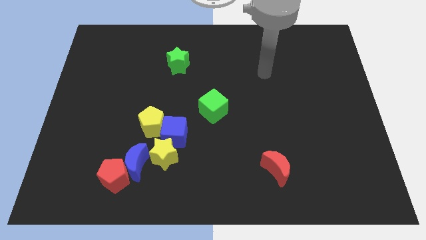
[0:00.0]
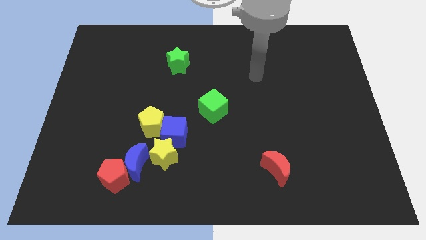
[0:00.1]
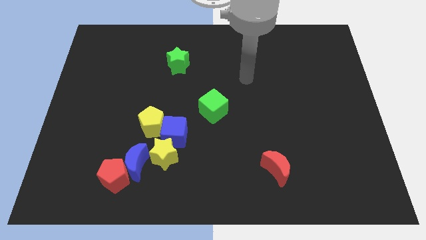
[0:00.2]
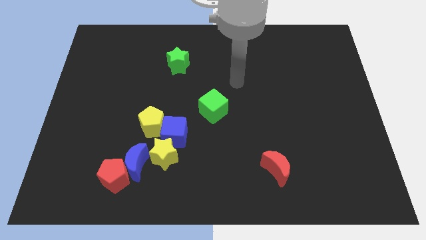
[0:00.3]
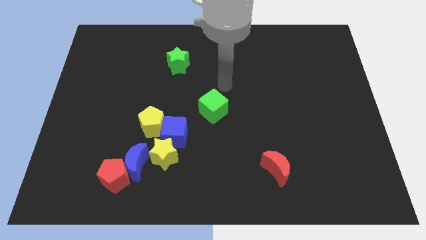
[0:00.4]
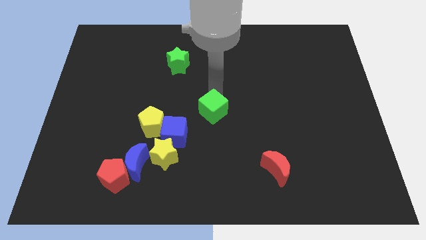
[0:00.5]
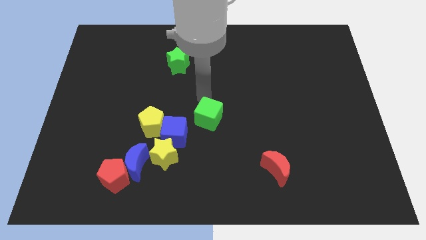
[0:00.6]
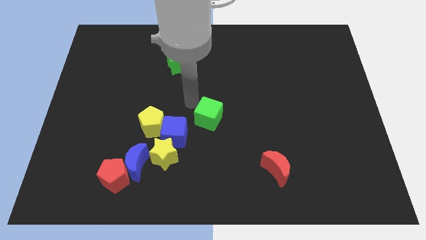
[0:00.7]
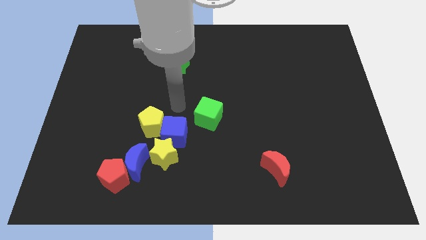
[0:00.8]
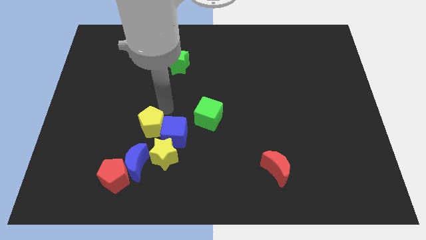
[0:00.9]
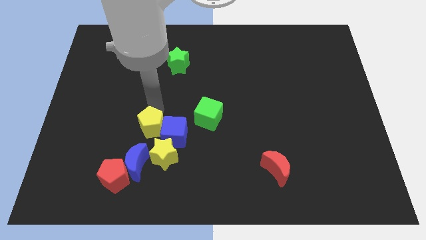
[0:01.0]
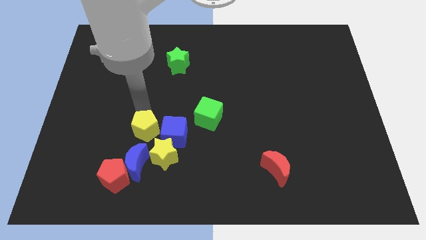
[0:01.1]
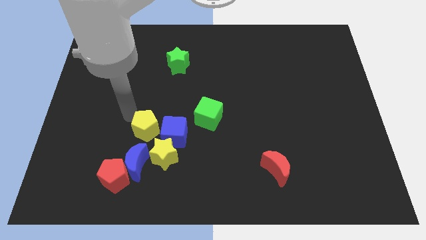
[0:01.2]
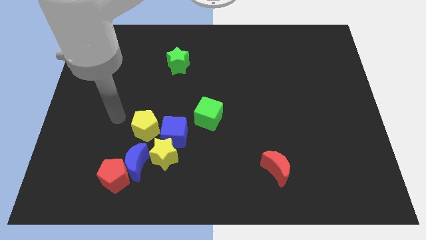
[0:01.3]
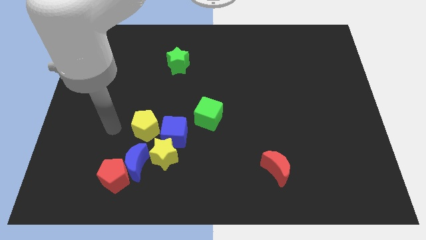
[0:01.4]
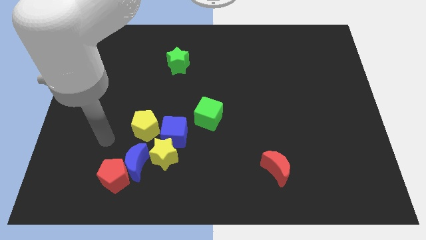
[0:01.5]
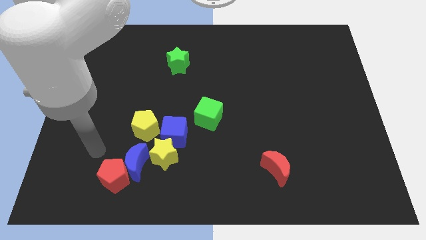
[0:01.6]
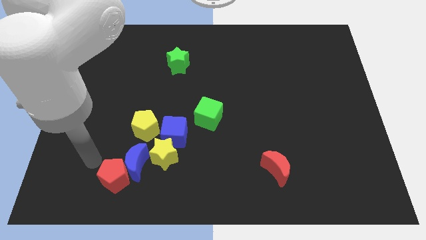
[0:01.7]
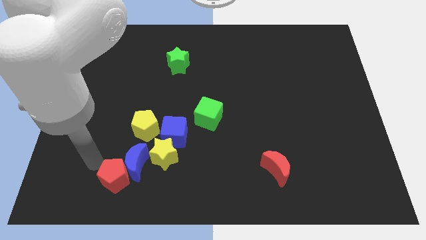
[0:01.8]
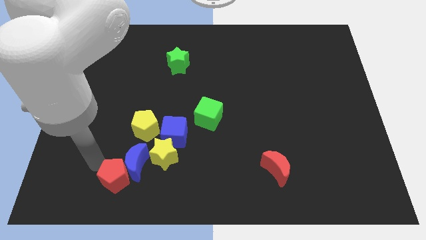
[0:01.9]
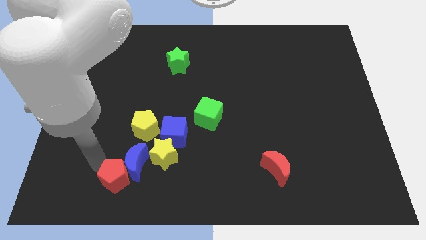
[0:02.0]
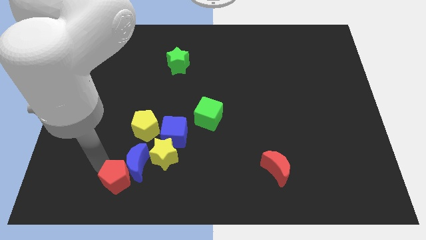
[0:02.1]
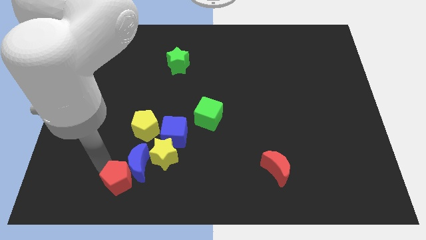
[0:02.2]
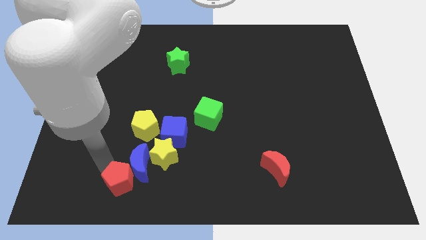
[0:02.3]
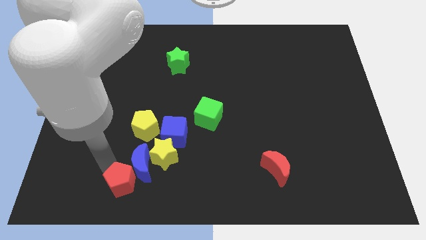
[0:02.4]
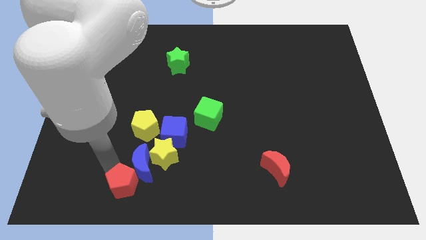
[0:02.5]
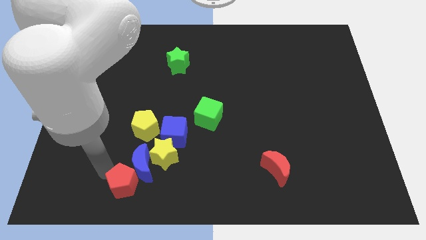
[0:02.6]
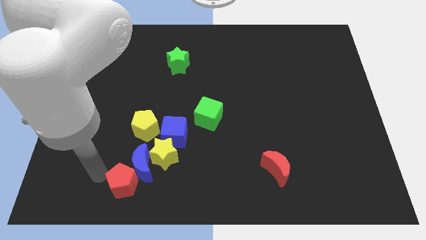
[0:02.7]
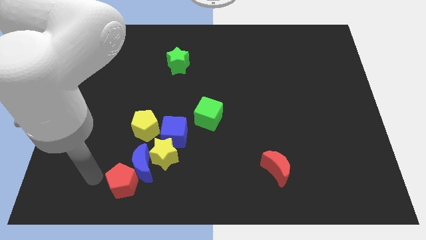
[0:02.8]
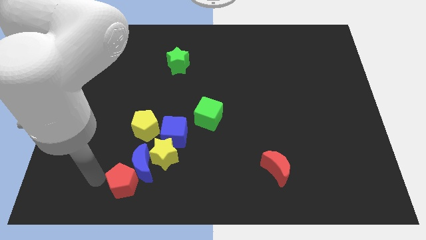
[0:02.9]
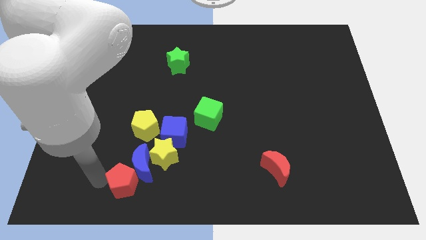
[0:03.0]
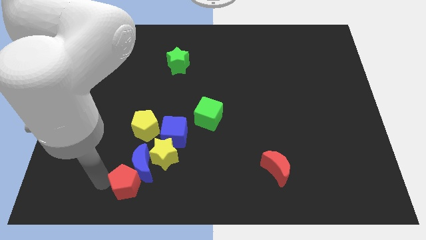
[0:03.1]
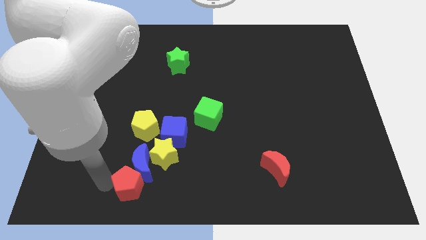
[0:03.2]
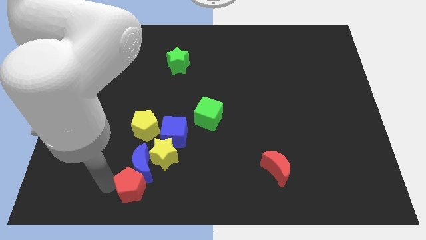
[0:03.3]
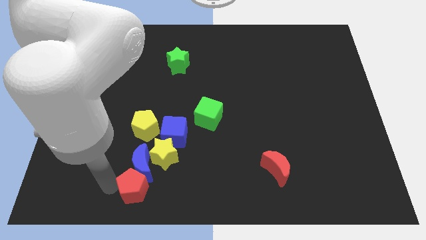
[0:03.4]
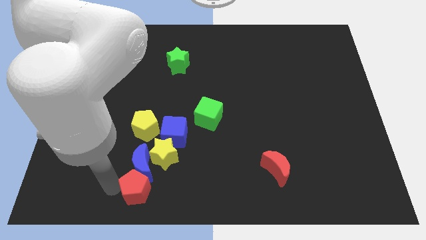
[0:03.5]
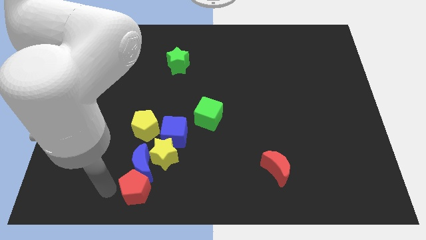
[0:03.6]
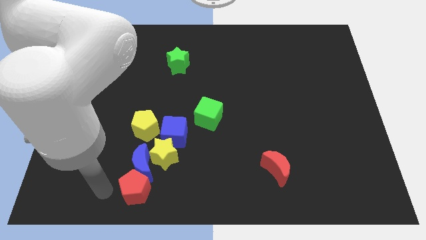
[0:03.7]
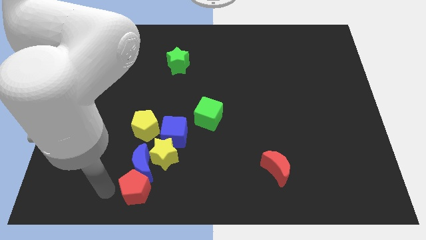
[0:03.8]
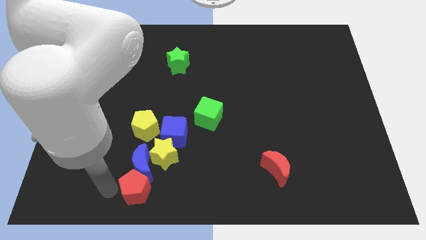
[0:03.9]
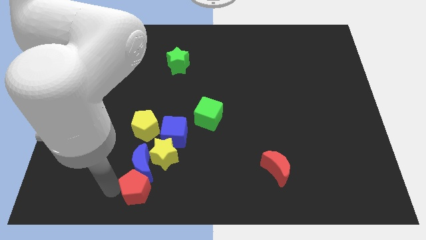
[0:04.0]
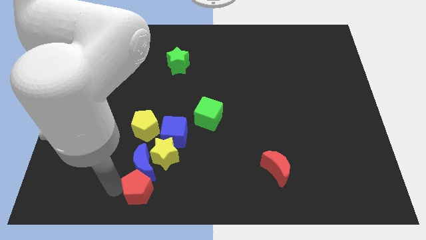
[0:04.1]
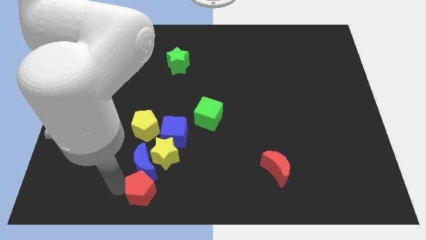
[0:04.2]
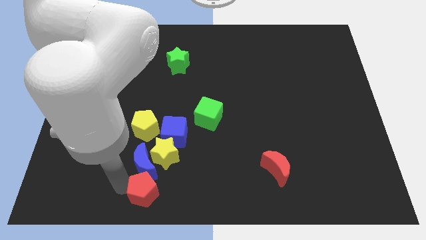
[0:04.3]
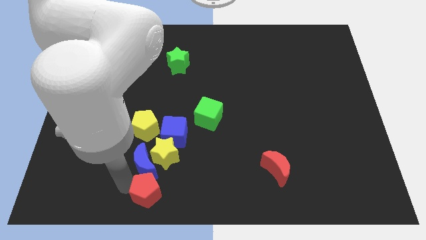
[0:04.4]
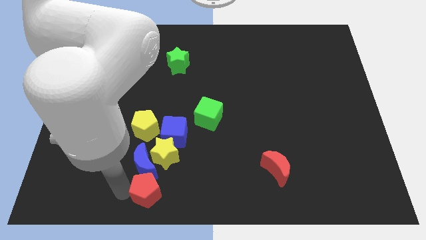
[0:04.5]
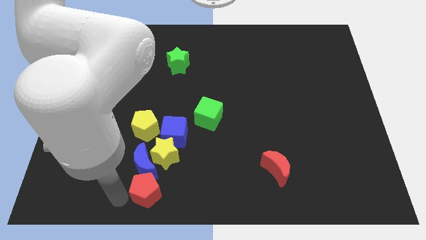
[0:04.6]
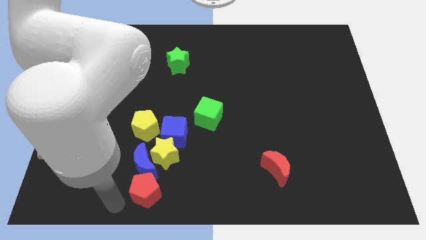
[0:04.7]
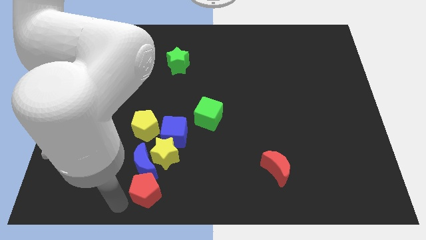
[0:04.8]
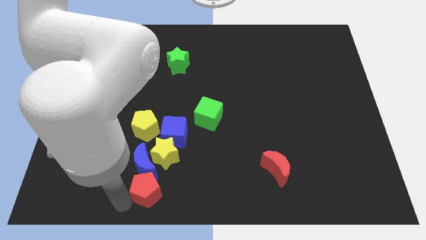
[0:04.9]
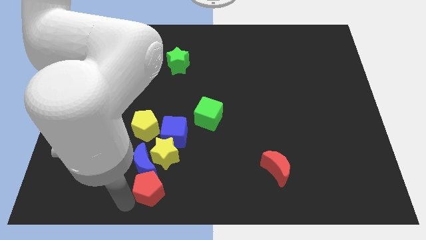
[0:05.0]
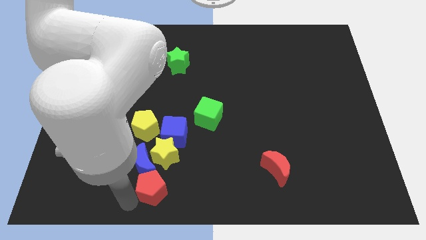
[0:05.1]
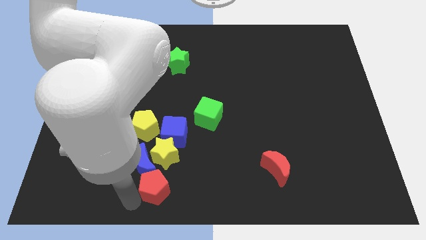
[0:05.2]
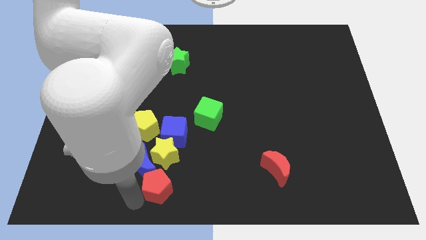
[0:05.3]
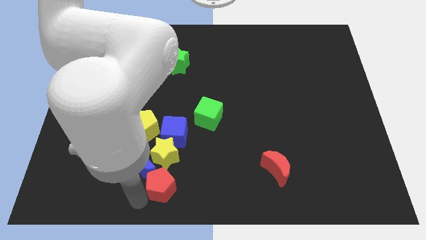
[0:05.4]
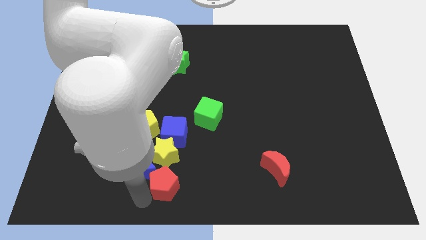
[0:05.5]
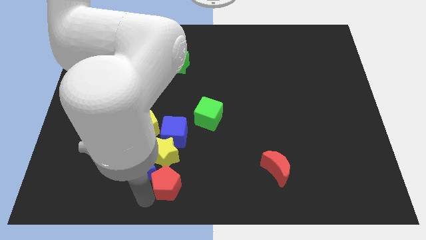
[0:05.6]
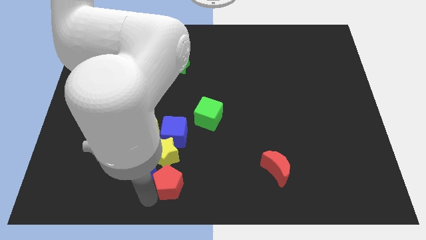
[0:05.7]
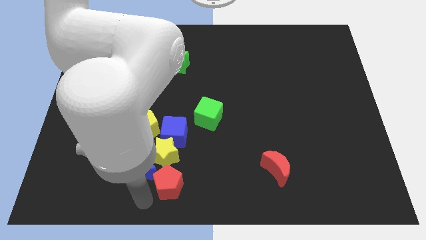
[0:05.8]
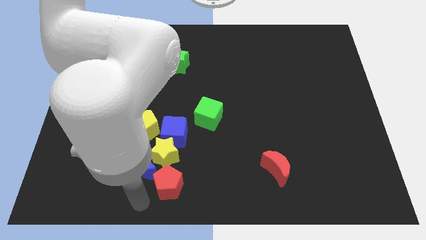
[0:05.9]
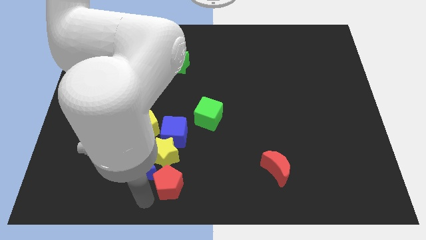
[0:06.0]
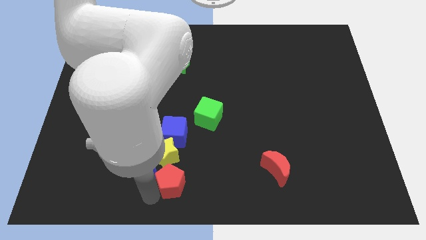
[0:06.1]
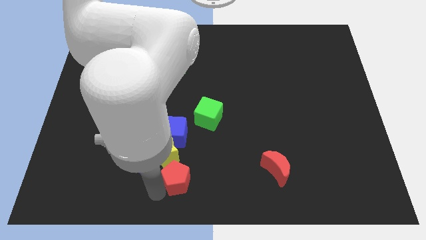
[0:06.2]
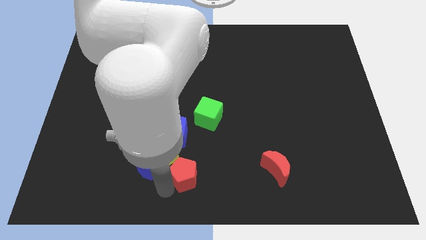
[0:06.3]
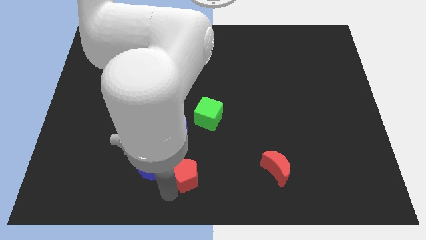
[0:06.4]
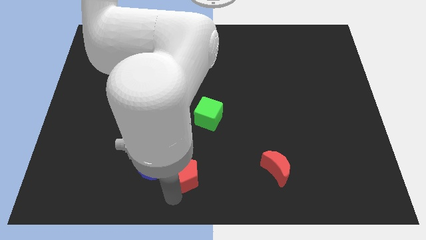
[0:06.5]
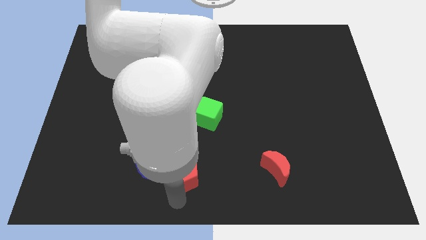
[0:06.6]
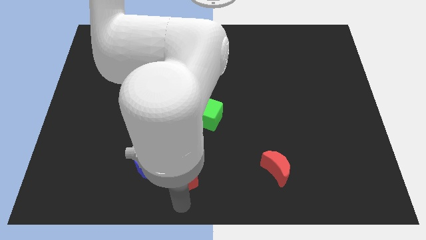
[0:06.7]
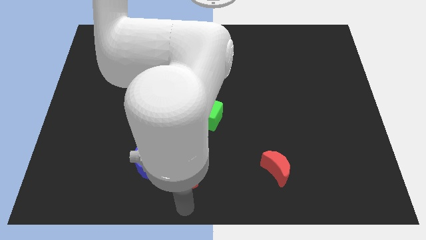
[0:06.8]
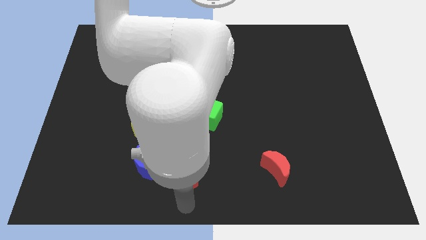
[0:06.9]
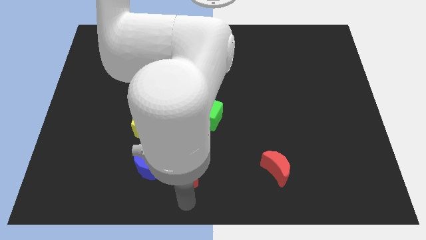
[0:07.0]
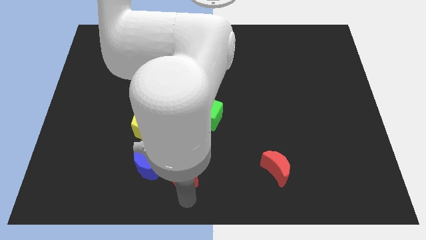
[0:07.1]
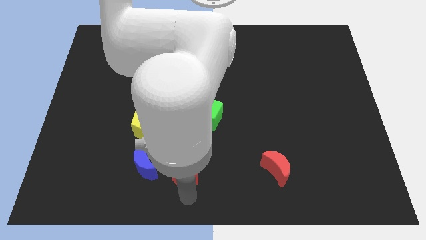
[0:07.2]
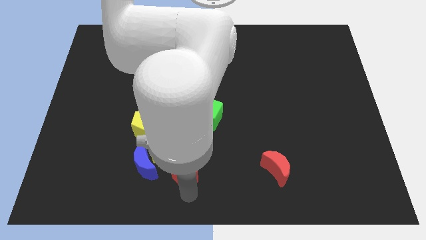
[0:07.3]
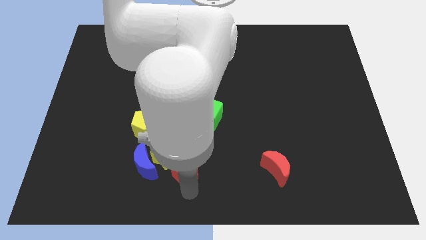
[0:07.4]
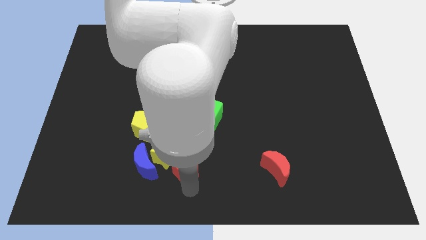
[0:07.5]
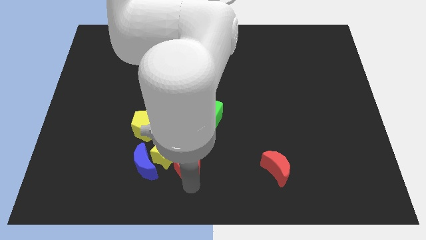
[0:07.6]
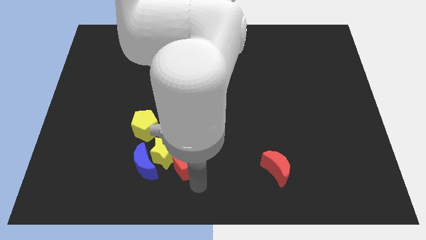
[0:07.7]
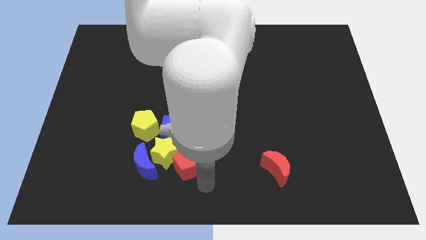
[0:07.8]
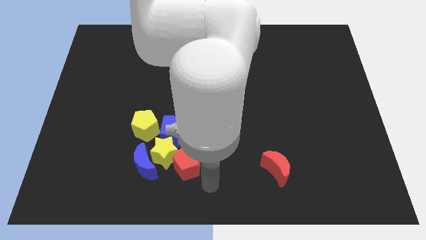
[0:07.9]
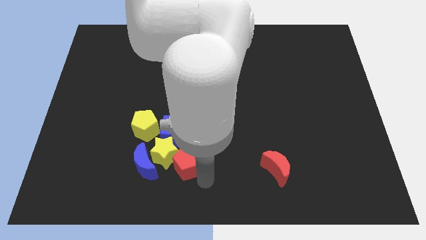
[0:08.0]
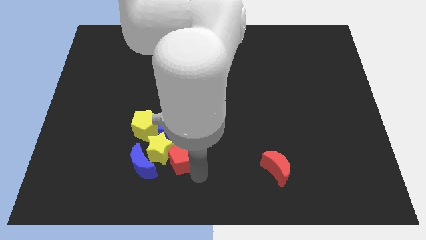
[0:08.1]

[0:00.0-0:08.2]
move the red pentagon diagonally down and to the right of the yellow pentagon
